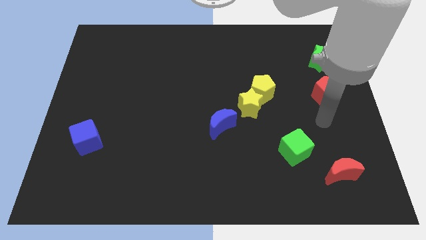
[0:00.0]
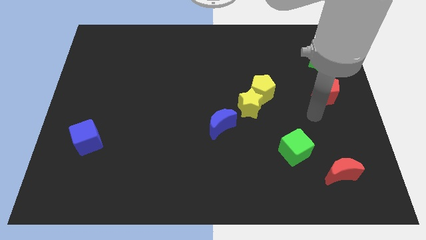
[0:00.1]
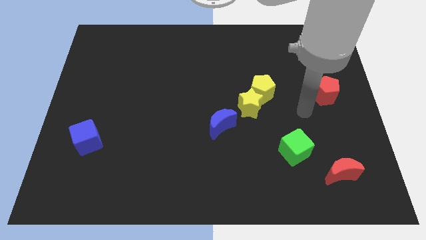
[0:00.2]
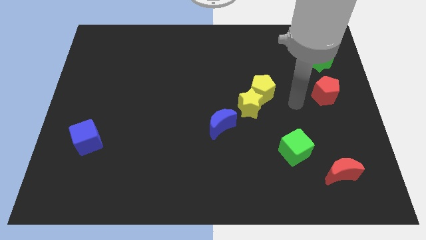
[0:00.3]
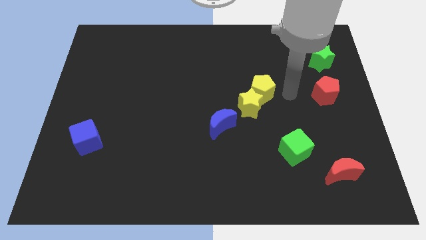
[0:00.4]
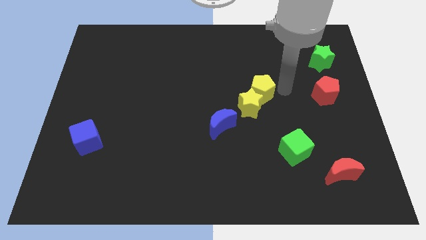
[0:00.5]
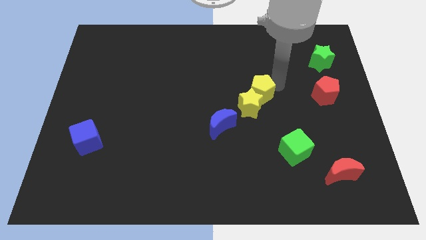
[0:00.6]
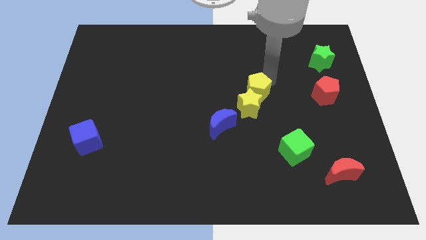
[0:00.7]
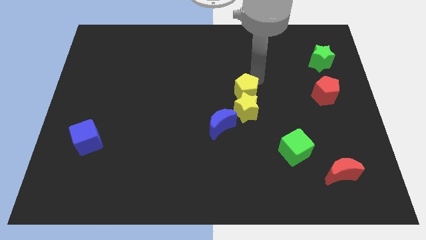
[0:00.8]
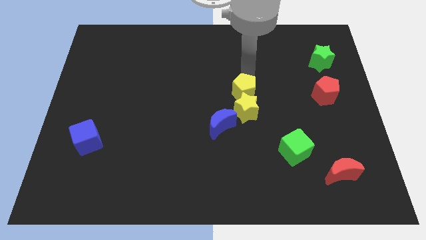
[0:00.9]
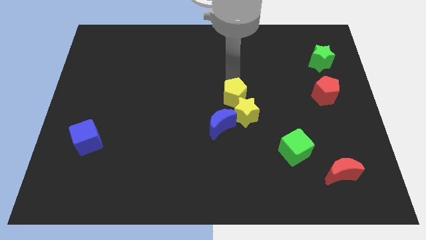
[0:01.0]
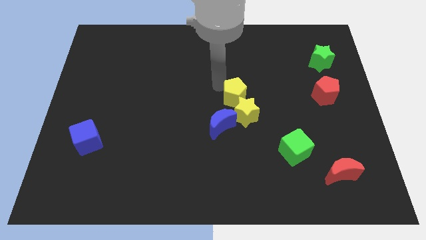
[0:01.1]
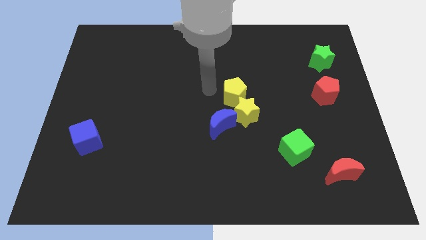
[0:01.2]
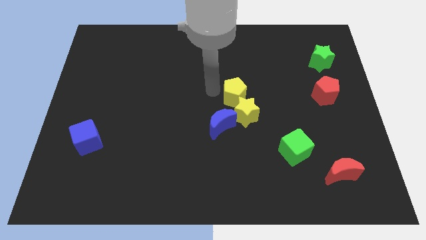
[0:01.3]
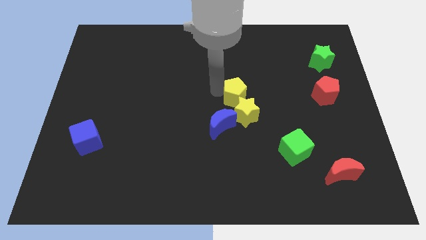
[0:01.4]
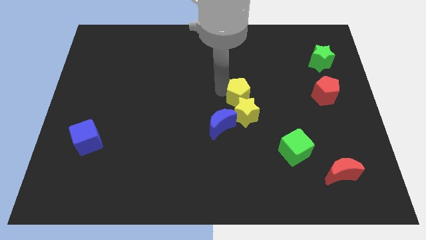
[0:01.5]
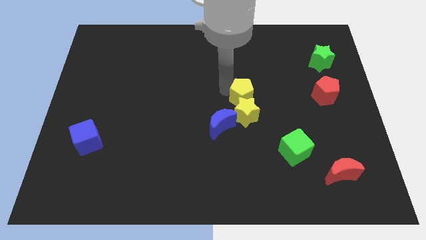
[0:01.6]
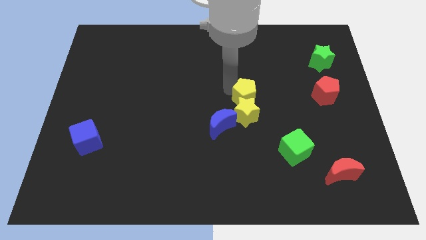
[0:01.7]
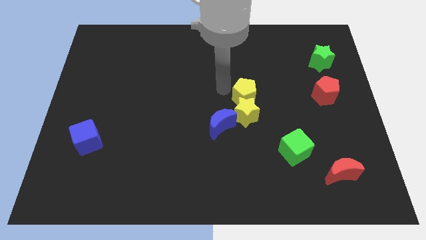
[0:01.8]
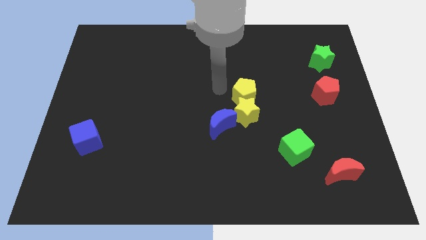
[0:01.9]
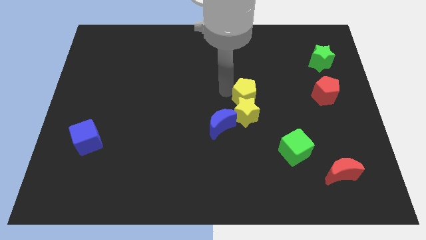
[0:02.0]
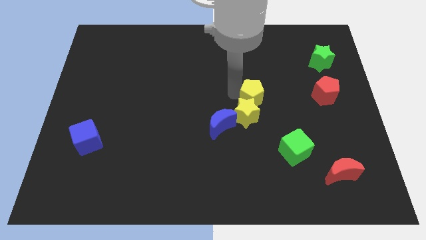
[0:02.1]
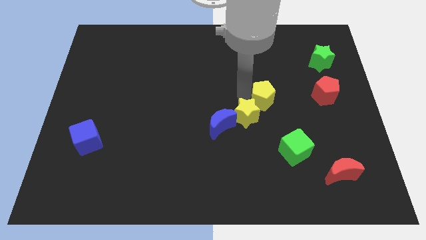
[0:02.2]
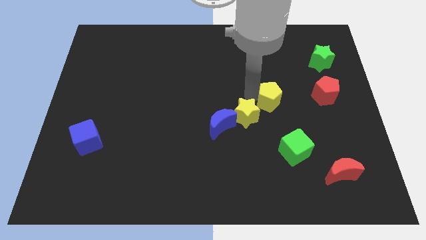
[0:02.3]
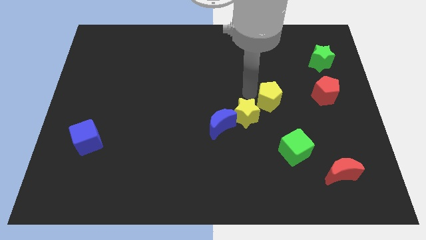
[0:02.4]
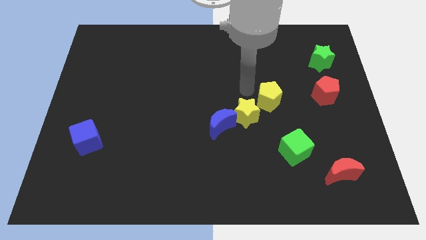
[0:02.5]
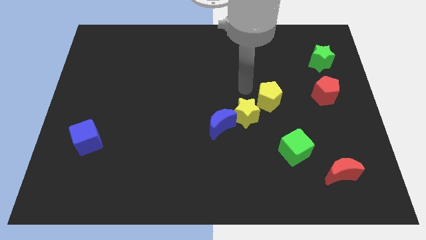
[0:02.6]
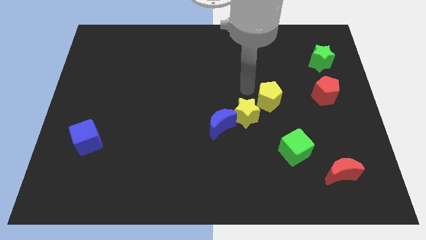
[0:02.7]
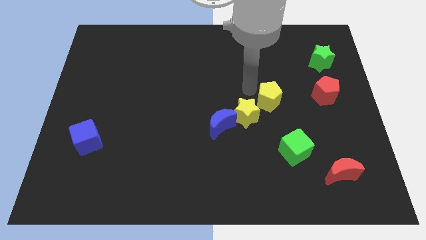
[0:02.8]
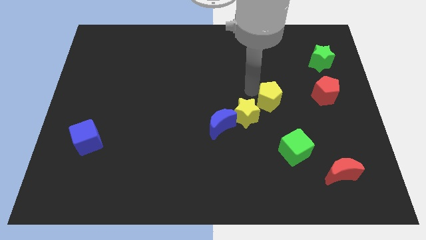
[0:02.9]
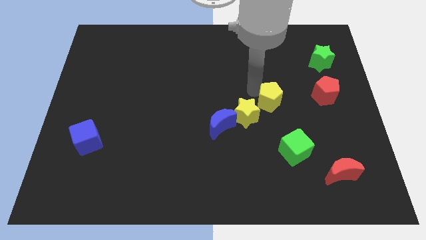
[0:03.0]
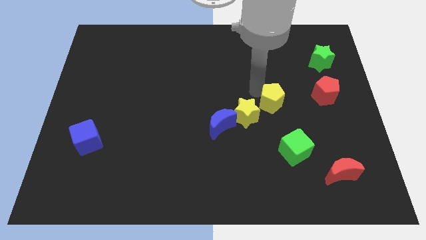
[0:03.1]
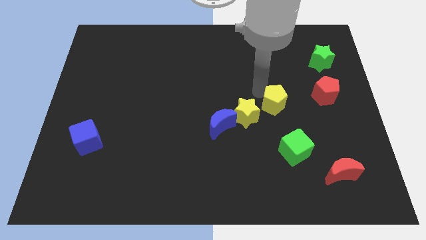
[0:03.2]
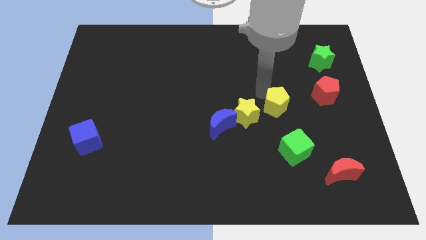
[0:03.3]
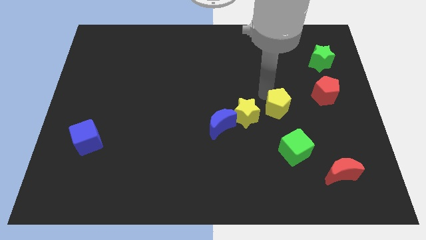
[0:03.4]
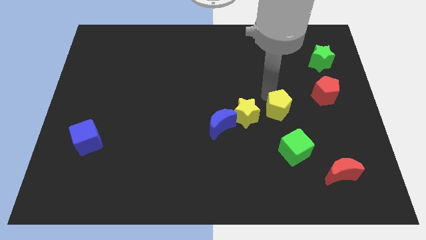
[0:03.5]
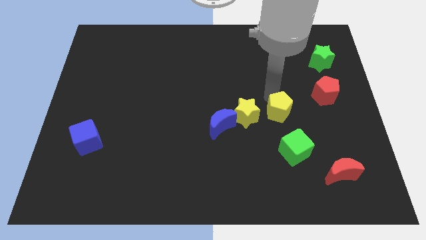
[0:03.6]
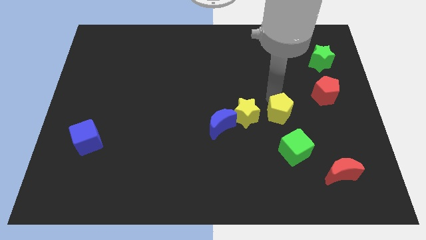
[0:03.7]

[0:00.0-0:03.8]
move the yellow pentagon a little bit diagonally down and to the right

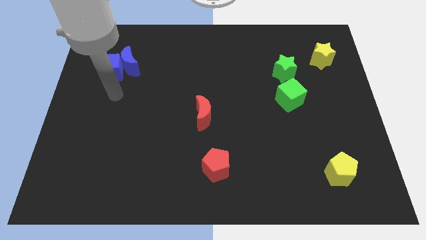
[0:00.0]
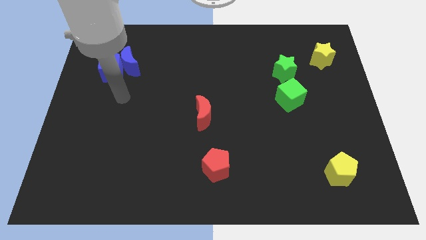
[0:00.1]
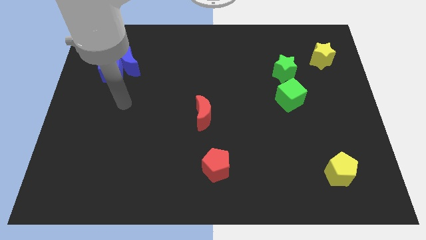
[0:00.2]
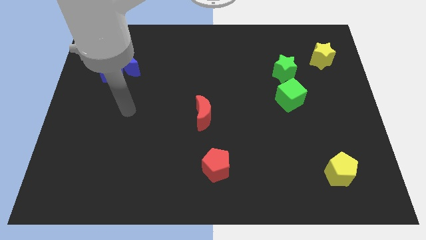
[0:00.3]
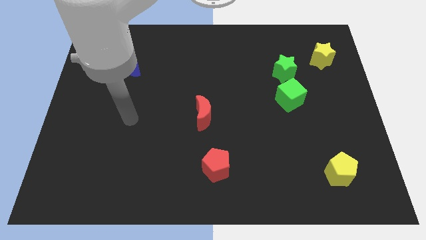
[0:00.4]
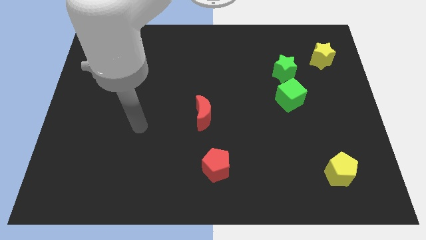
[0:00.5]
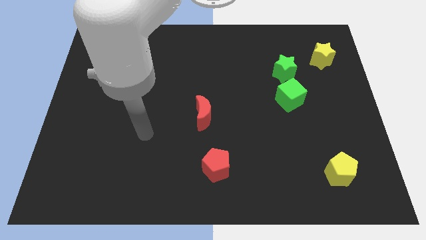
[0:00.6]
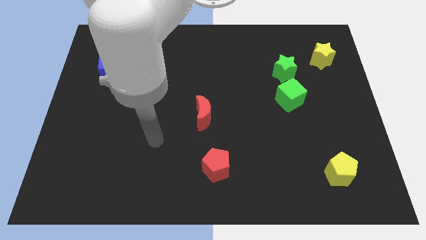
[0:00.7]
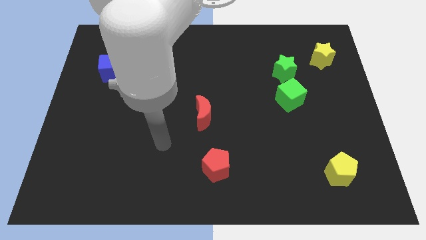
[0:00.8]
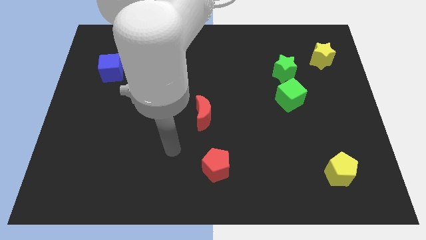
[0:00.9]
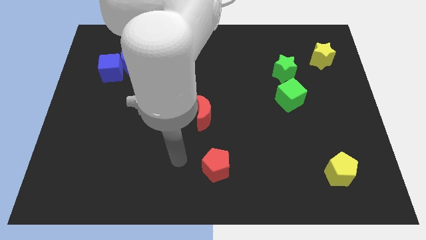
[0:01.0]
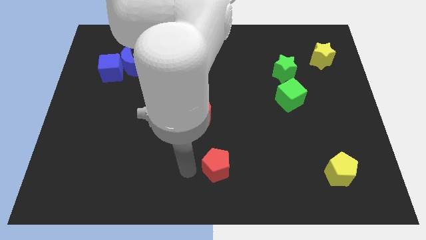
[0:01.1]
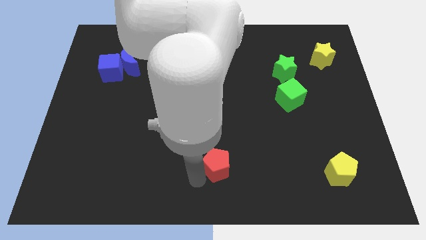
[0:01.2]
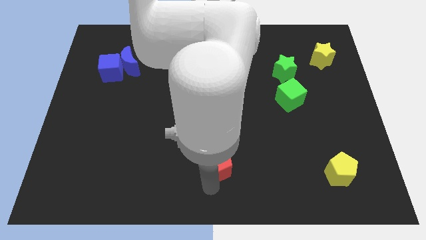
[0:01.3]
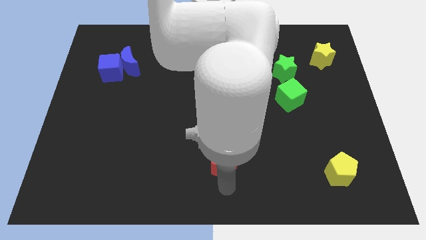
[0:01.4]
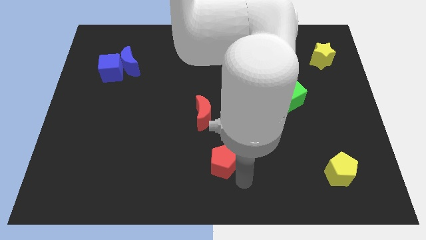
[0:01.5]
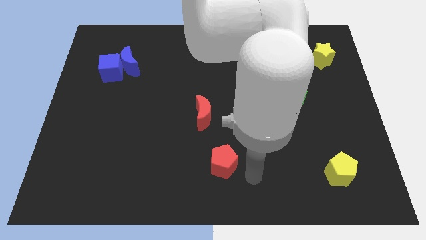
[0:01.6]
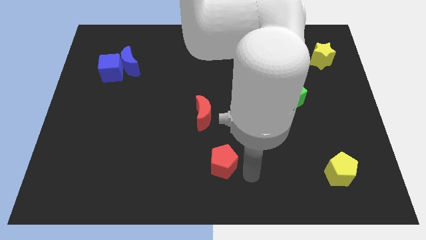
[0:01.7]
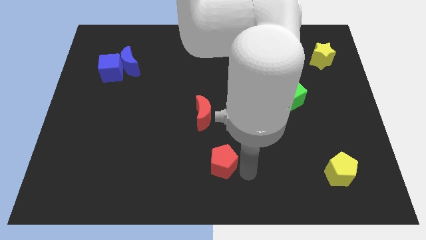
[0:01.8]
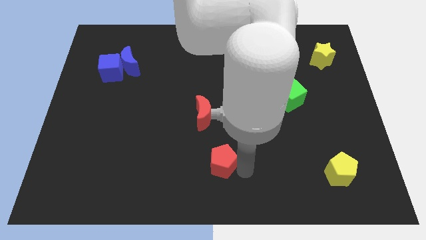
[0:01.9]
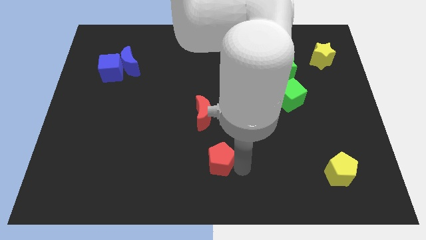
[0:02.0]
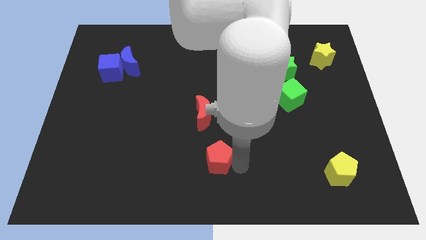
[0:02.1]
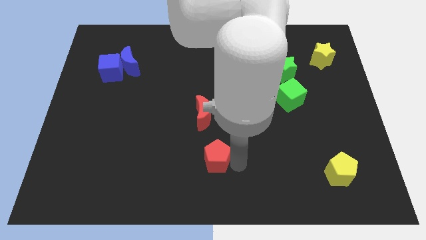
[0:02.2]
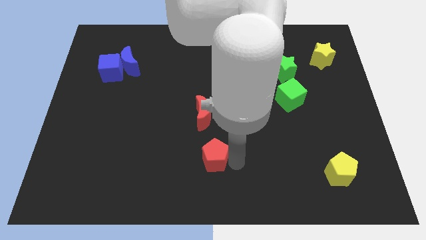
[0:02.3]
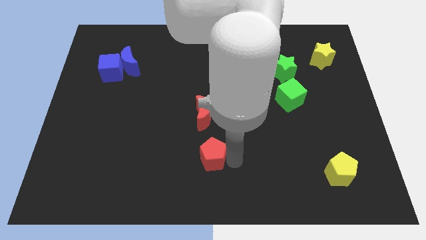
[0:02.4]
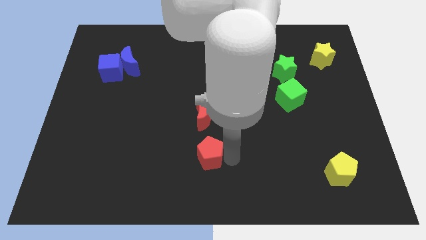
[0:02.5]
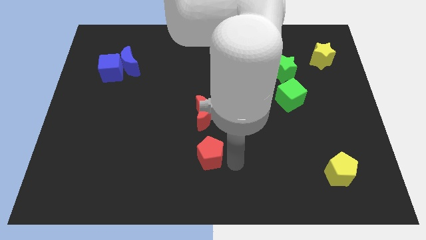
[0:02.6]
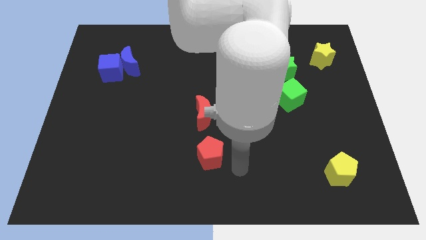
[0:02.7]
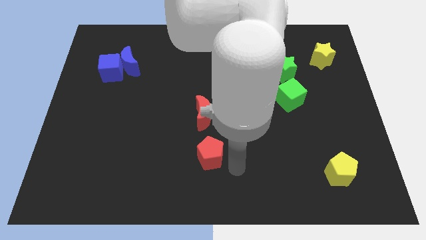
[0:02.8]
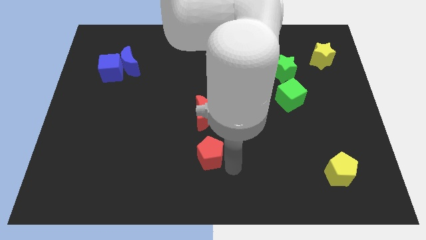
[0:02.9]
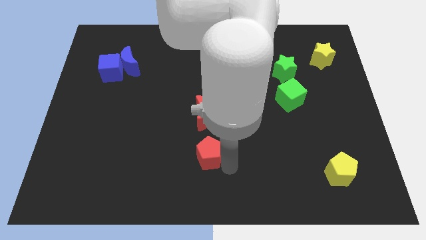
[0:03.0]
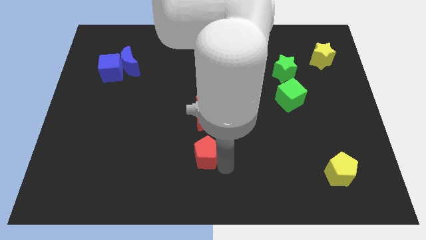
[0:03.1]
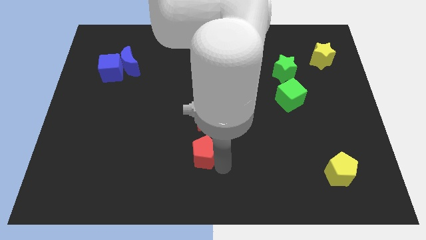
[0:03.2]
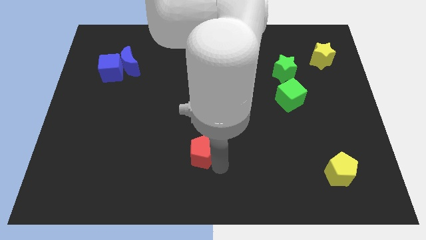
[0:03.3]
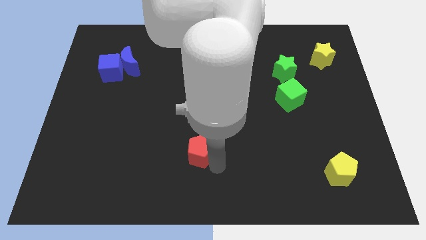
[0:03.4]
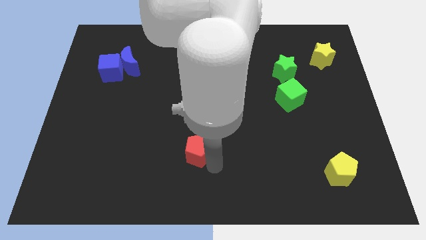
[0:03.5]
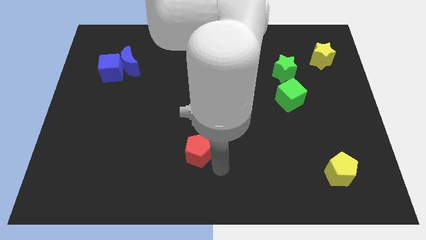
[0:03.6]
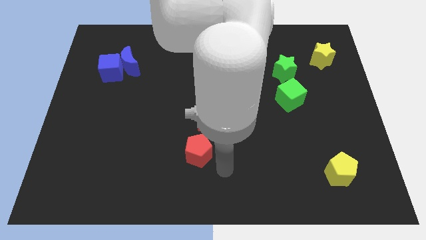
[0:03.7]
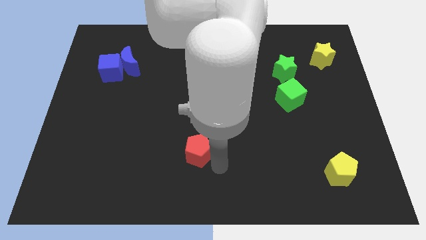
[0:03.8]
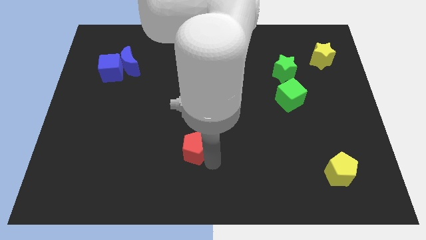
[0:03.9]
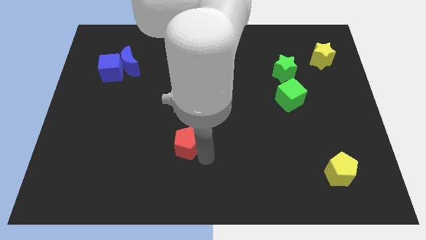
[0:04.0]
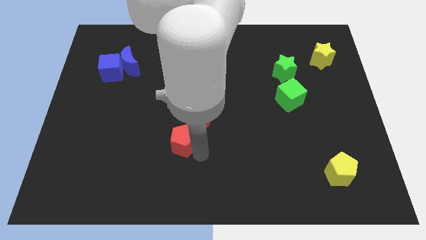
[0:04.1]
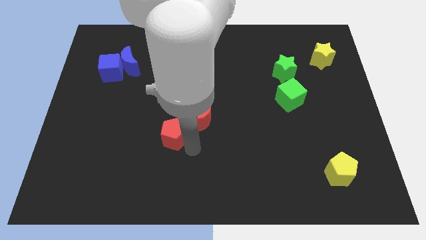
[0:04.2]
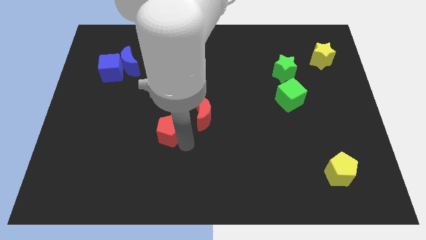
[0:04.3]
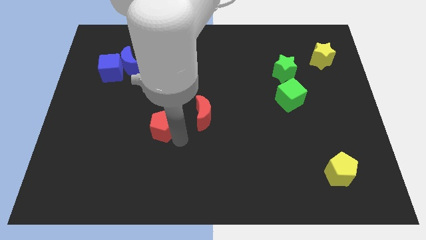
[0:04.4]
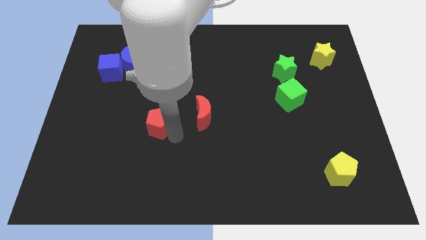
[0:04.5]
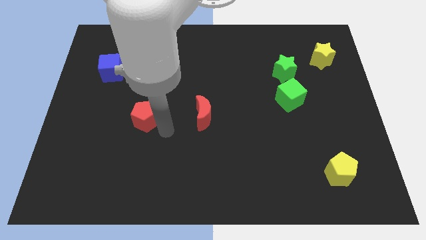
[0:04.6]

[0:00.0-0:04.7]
push the red pentagon up and then left
